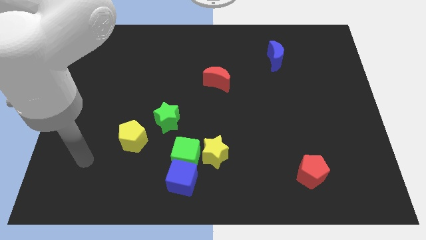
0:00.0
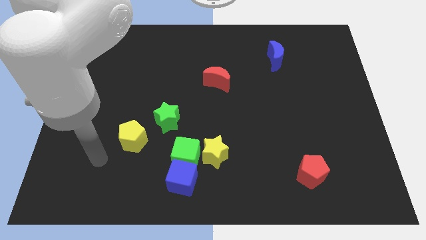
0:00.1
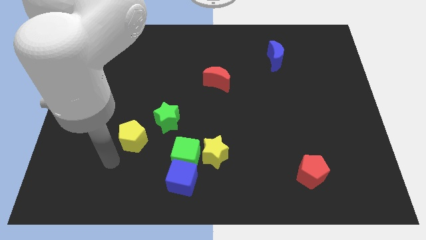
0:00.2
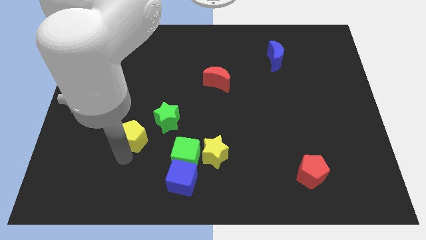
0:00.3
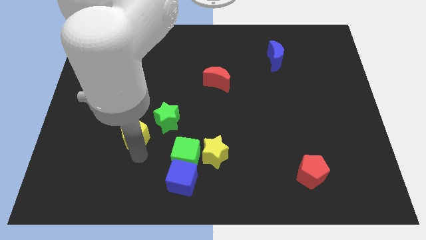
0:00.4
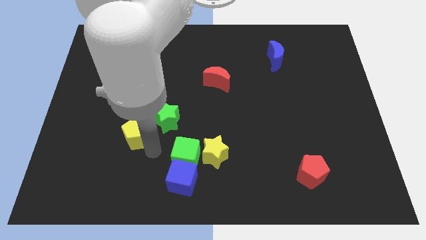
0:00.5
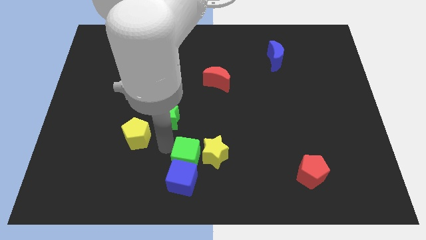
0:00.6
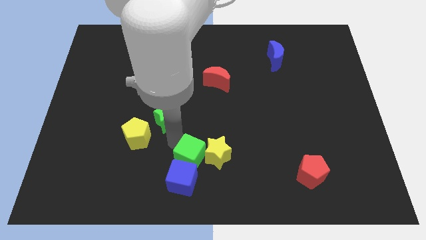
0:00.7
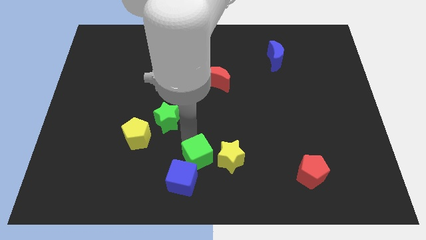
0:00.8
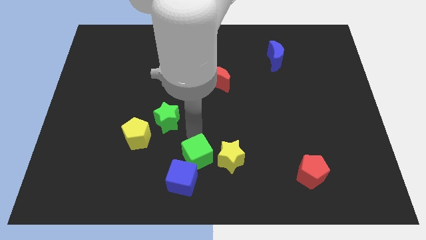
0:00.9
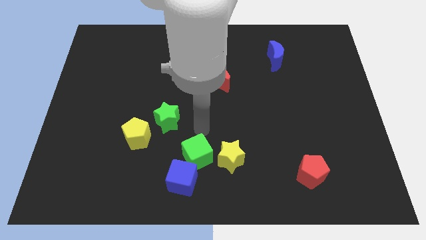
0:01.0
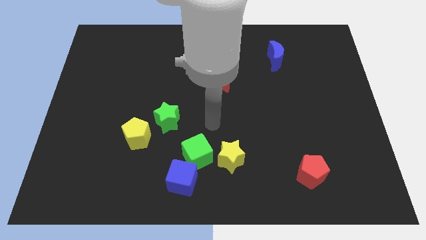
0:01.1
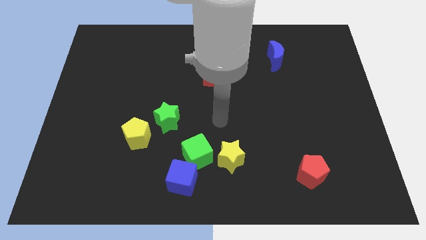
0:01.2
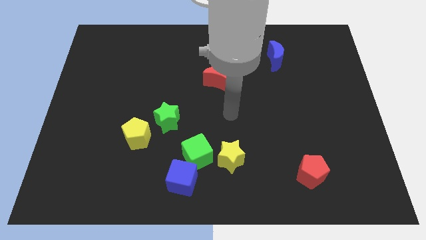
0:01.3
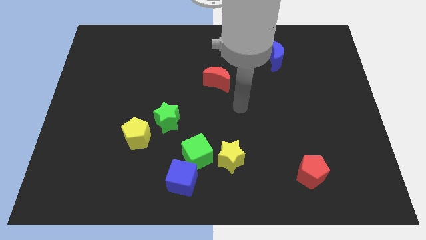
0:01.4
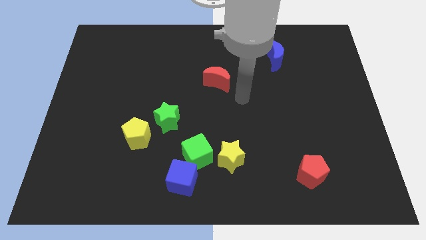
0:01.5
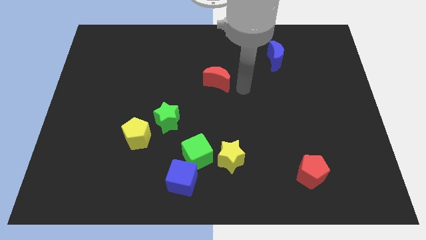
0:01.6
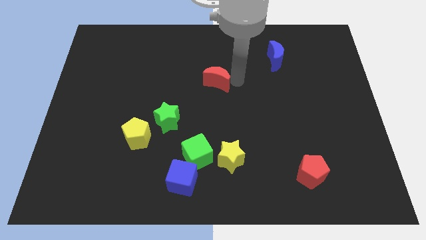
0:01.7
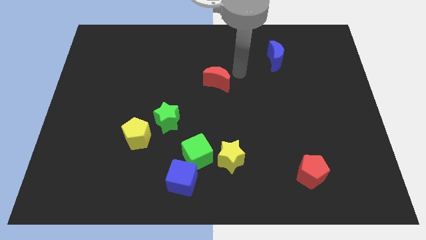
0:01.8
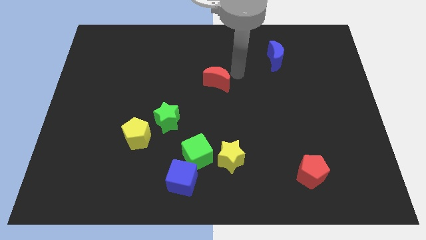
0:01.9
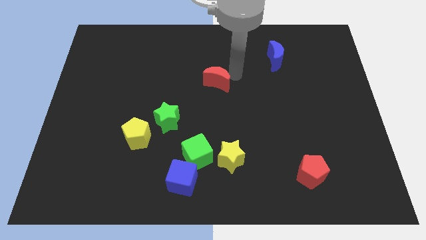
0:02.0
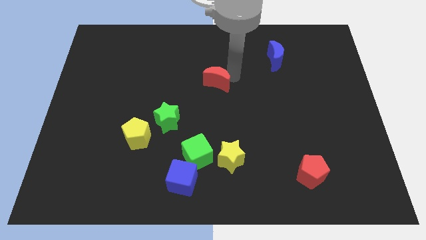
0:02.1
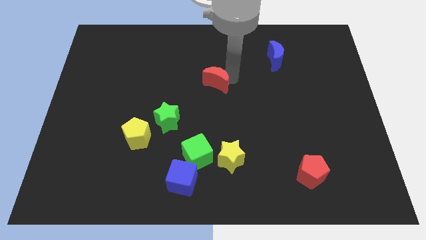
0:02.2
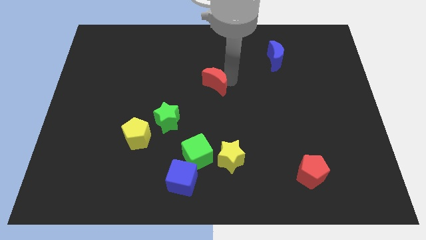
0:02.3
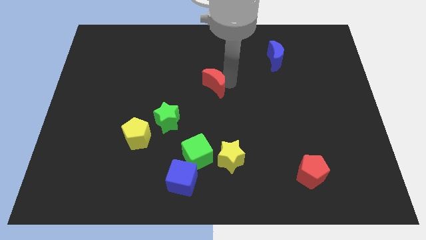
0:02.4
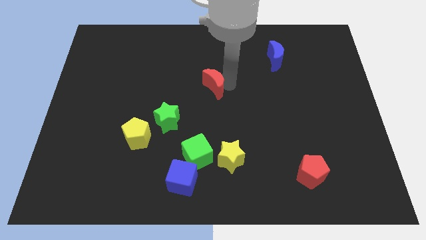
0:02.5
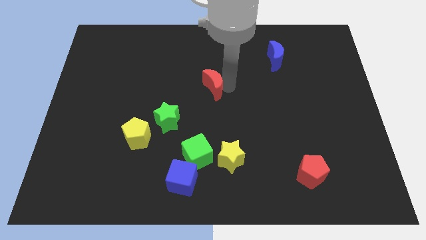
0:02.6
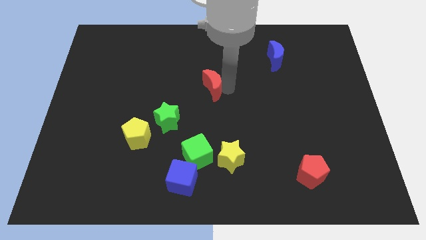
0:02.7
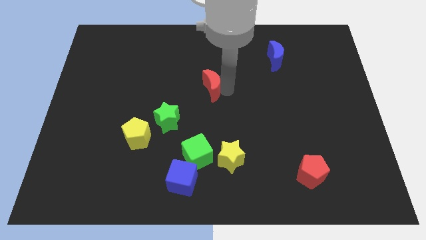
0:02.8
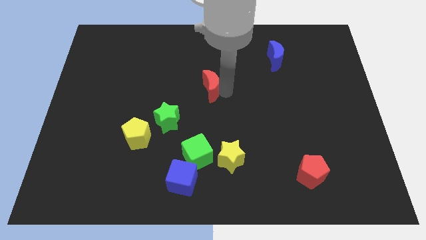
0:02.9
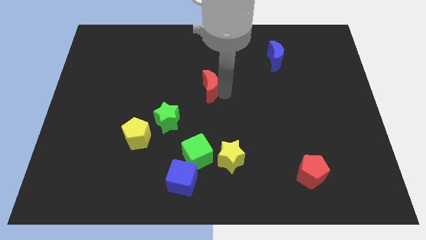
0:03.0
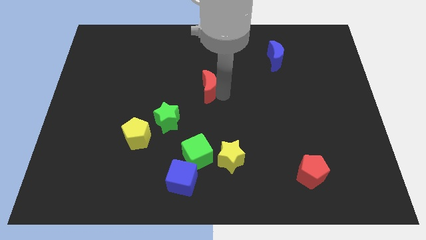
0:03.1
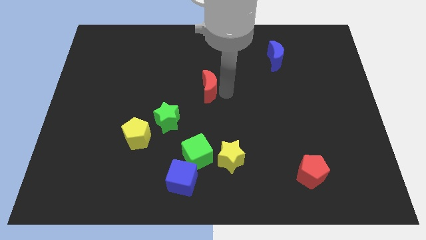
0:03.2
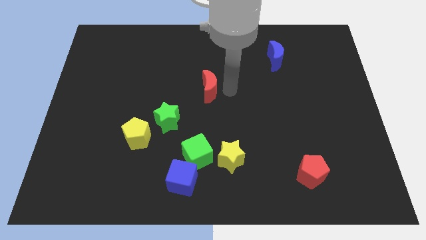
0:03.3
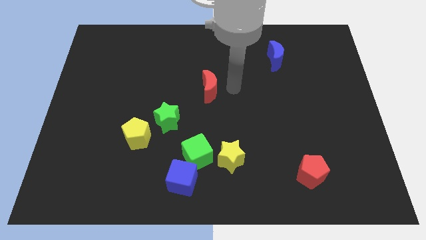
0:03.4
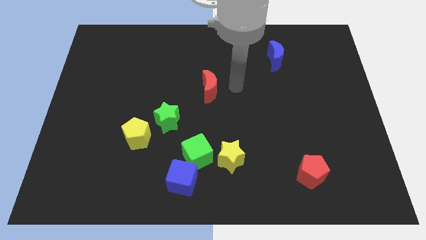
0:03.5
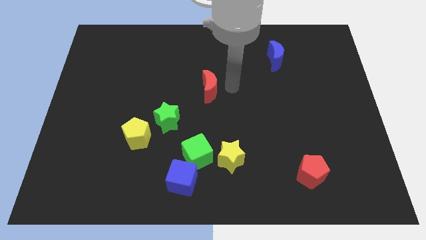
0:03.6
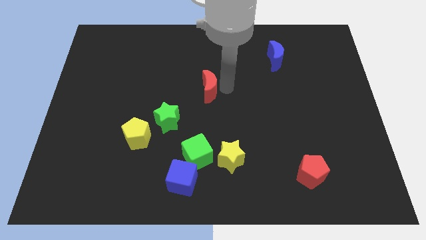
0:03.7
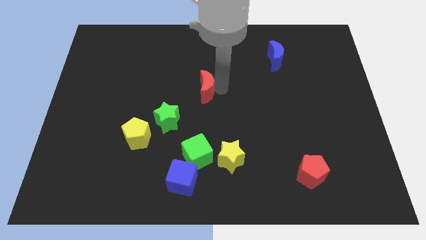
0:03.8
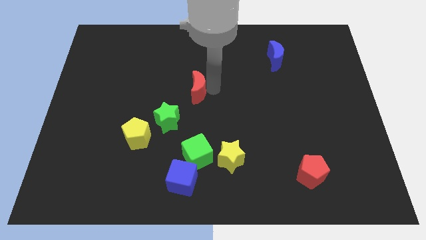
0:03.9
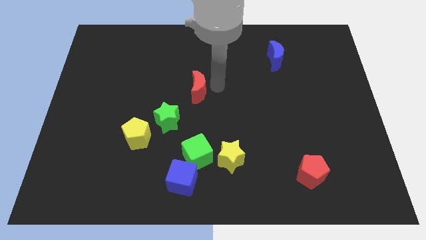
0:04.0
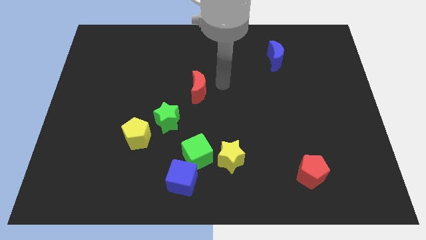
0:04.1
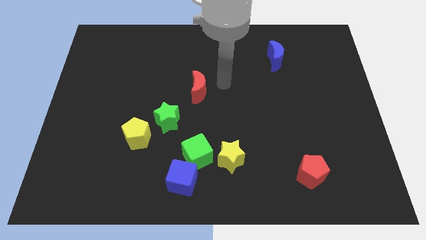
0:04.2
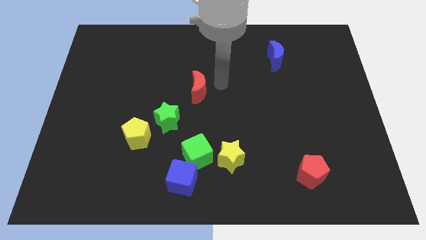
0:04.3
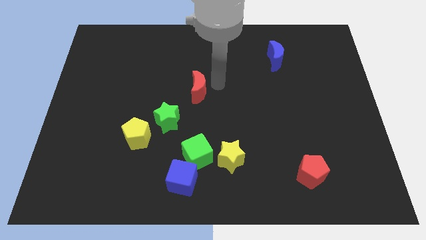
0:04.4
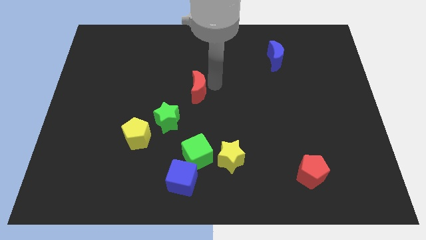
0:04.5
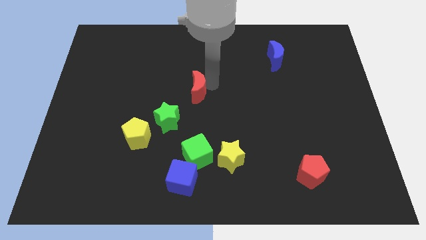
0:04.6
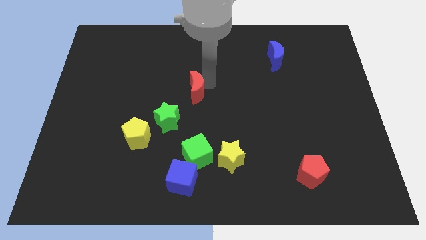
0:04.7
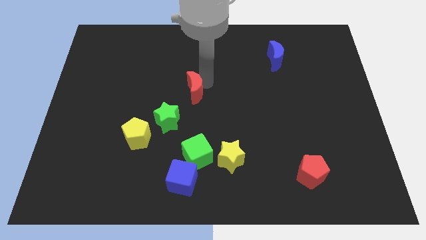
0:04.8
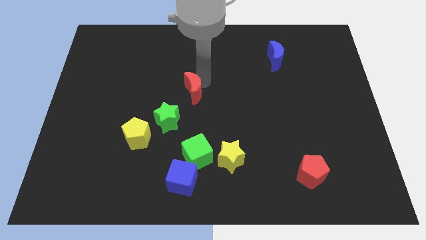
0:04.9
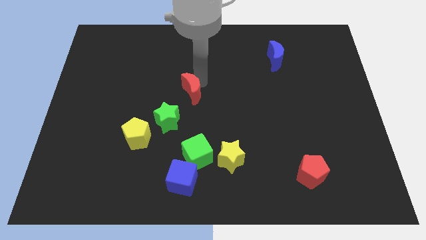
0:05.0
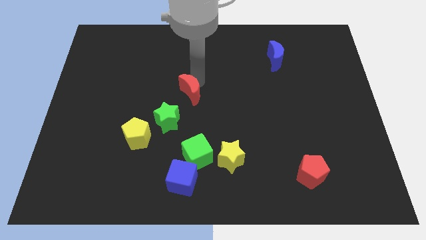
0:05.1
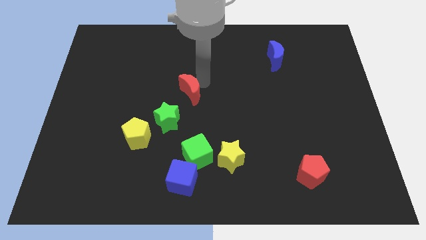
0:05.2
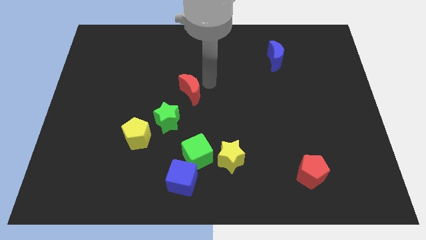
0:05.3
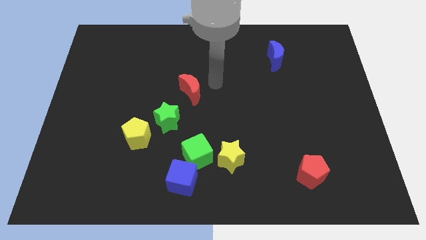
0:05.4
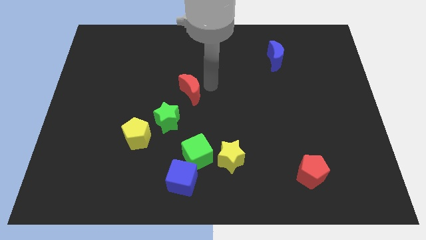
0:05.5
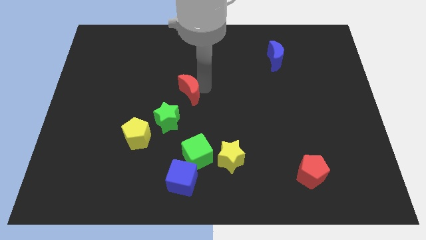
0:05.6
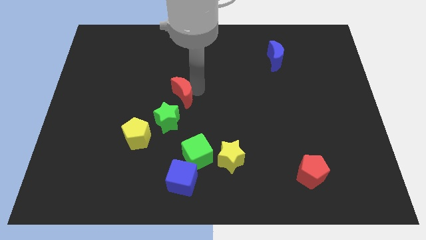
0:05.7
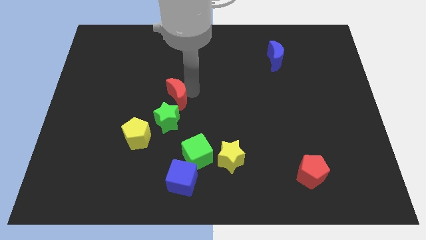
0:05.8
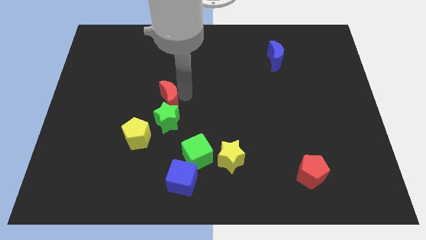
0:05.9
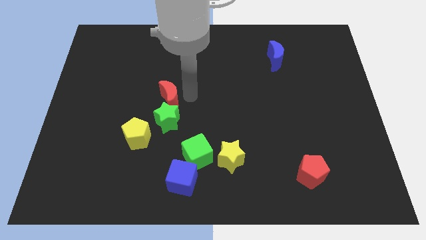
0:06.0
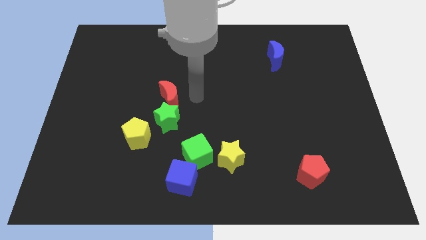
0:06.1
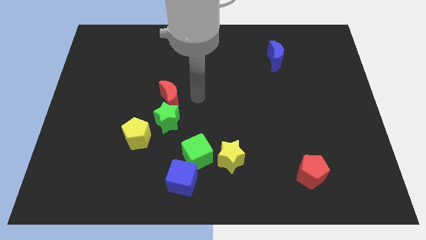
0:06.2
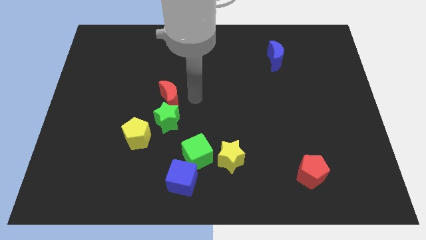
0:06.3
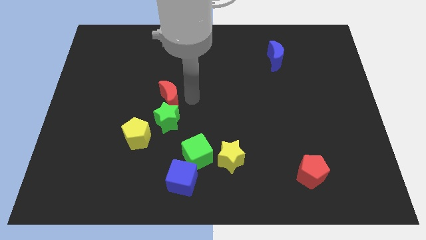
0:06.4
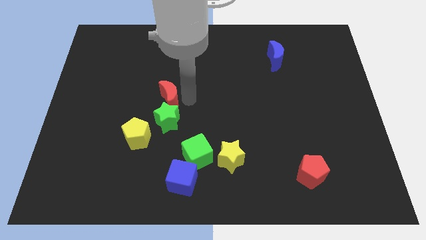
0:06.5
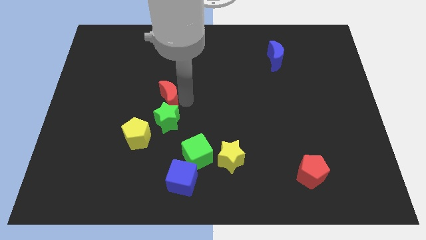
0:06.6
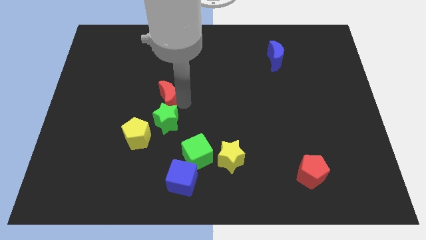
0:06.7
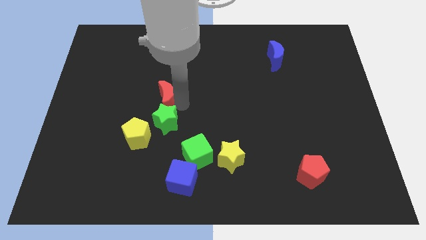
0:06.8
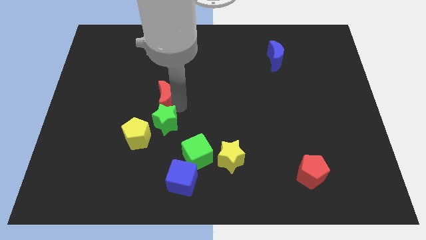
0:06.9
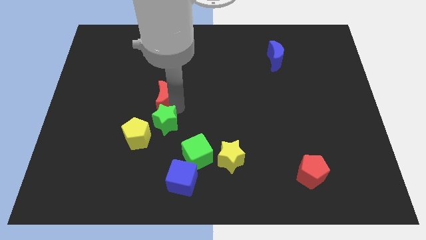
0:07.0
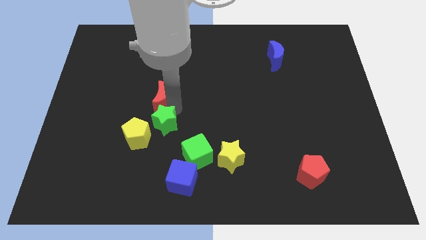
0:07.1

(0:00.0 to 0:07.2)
put the red moon above the yellow pentagon

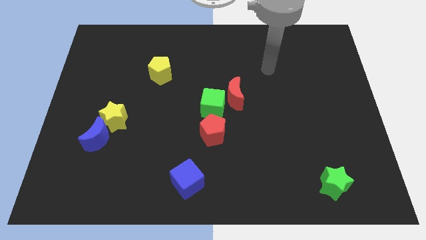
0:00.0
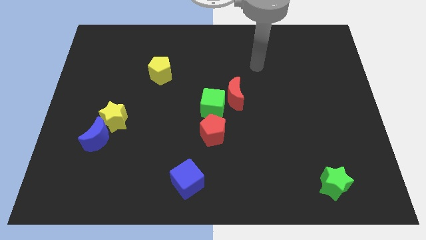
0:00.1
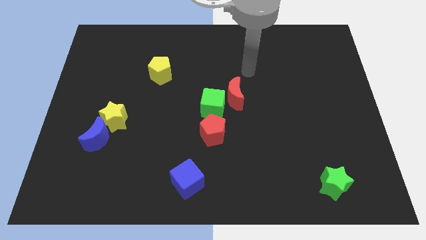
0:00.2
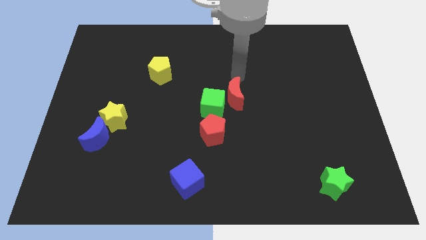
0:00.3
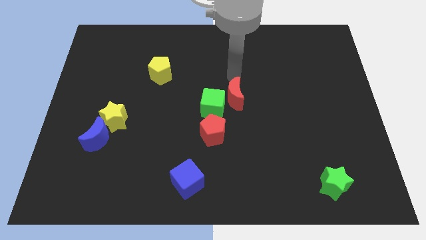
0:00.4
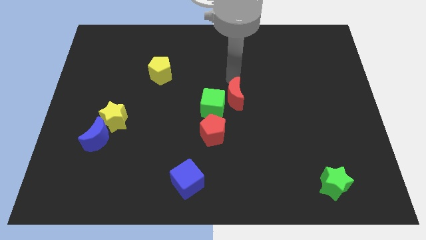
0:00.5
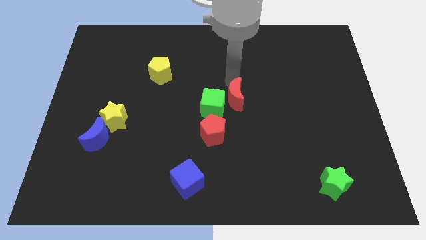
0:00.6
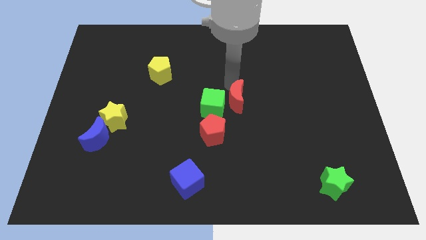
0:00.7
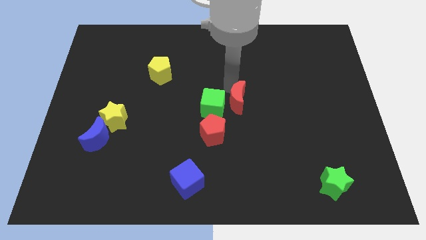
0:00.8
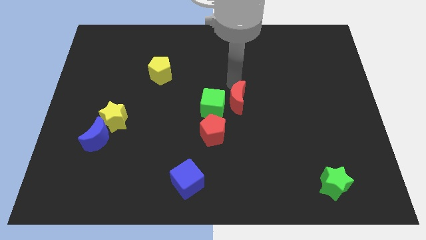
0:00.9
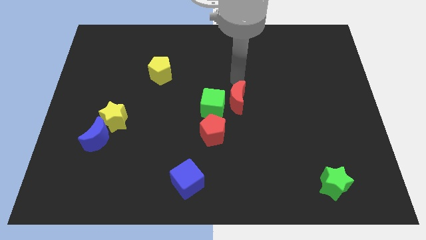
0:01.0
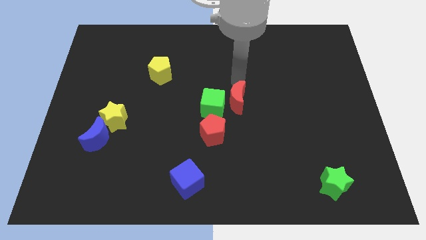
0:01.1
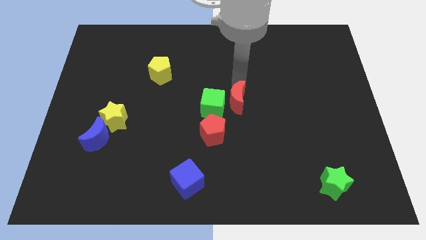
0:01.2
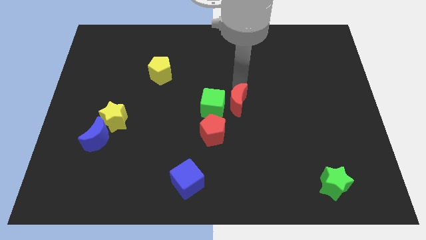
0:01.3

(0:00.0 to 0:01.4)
push the red moon diagonally down and to the right of the green cube
